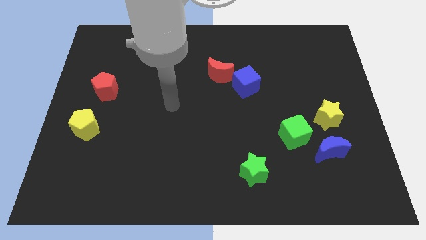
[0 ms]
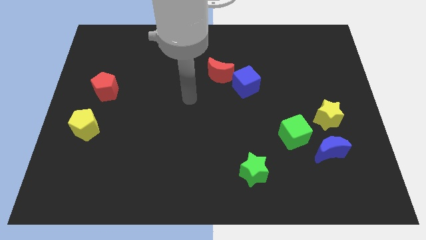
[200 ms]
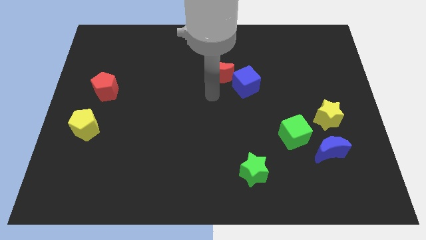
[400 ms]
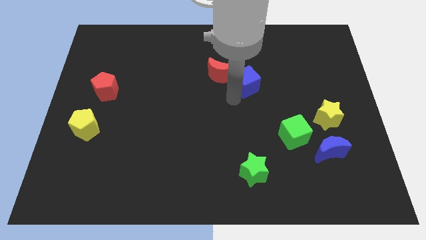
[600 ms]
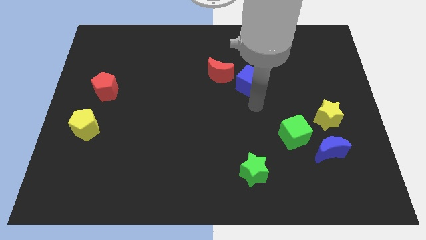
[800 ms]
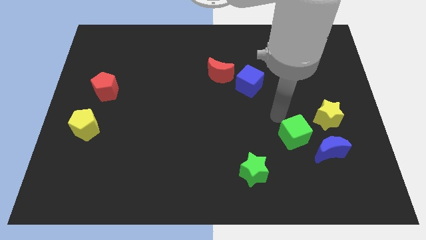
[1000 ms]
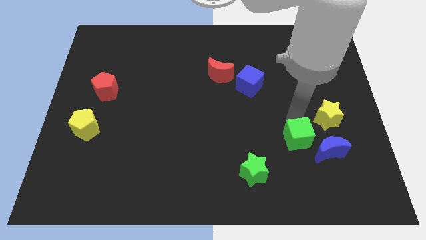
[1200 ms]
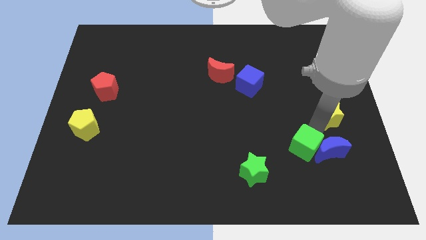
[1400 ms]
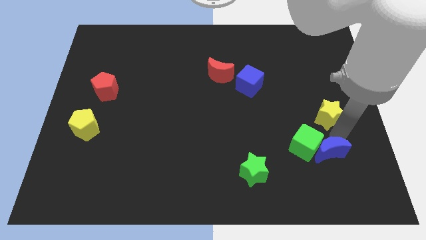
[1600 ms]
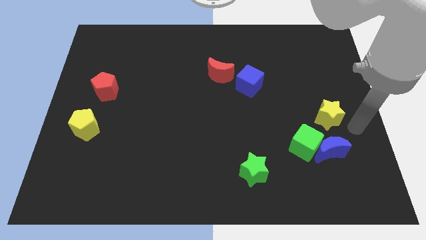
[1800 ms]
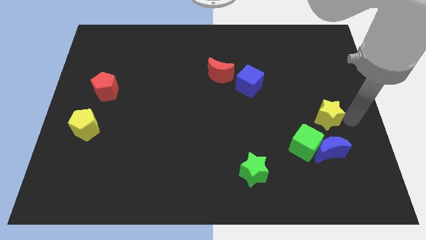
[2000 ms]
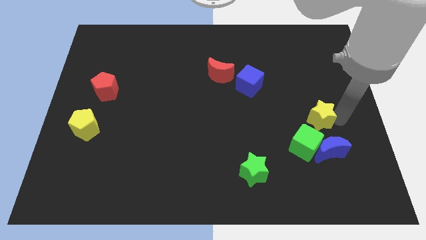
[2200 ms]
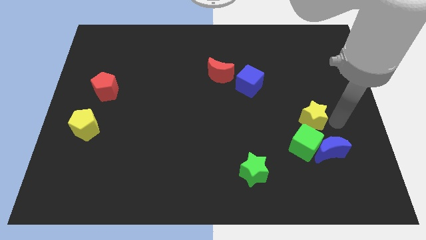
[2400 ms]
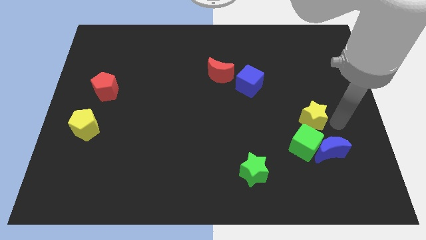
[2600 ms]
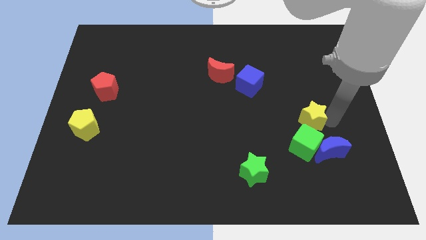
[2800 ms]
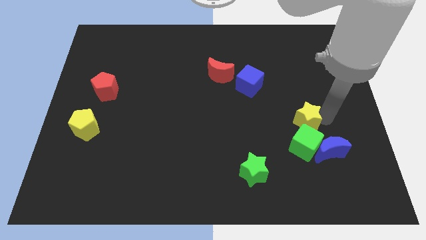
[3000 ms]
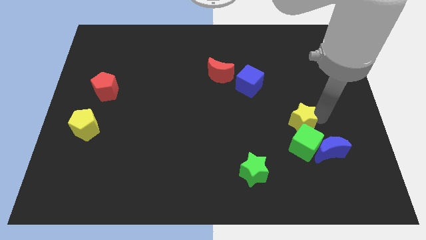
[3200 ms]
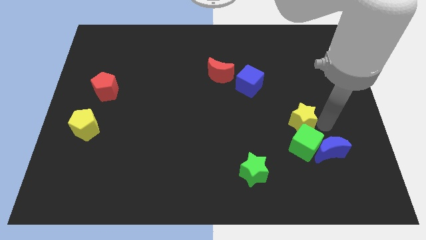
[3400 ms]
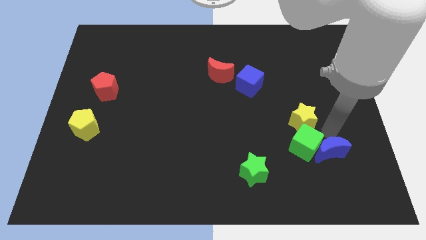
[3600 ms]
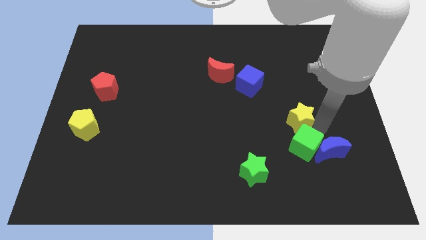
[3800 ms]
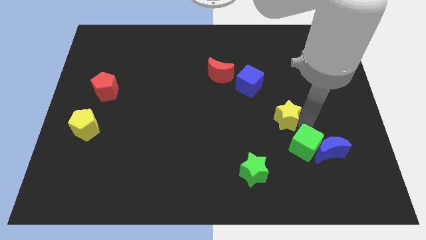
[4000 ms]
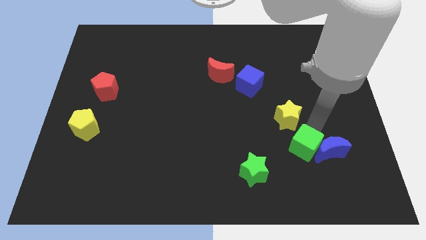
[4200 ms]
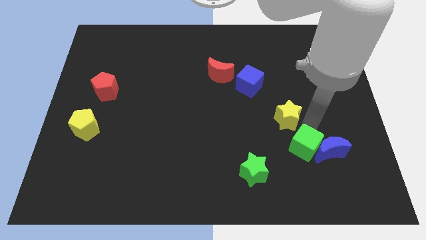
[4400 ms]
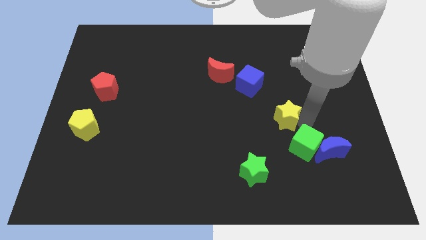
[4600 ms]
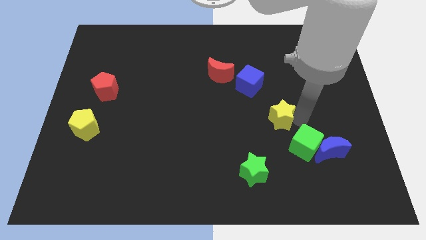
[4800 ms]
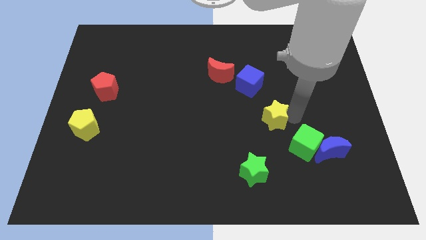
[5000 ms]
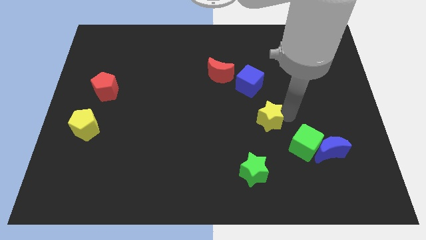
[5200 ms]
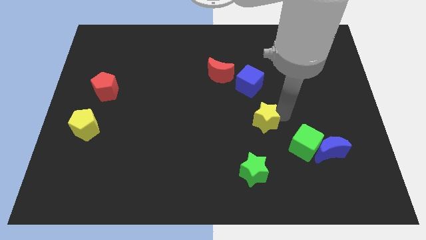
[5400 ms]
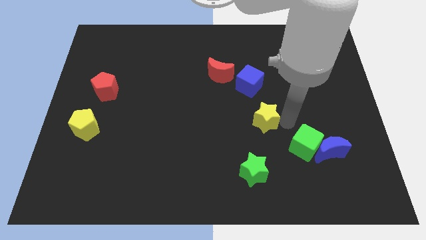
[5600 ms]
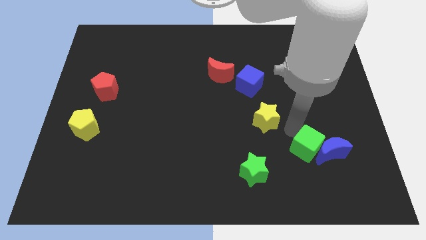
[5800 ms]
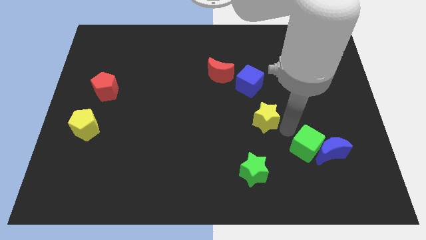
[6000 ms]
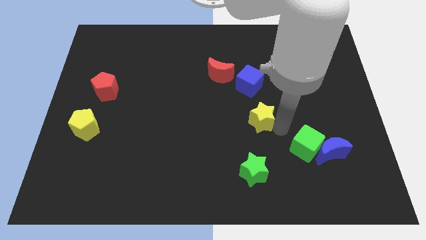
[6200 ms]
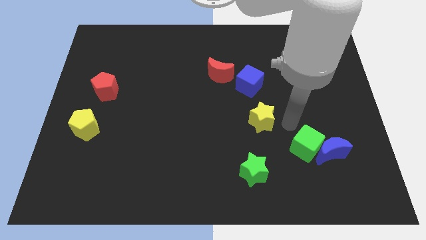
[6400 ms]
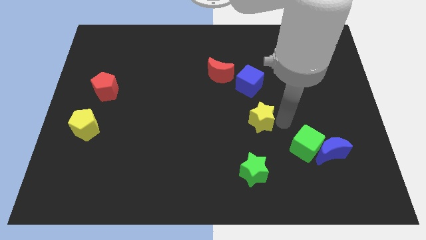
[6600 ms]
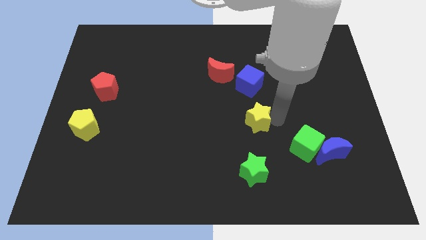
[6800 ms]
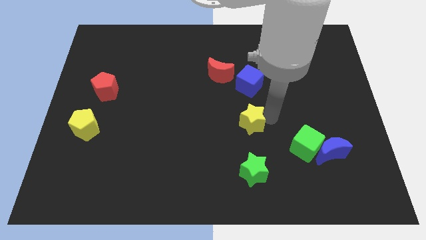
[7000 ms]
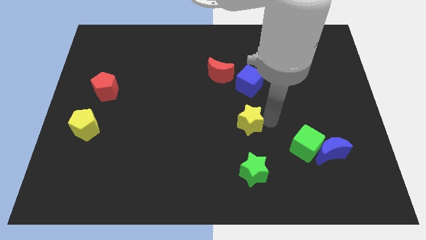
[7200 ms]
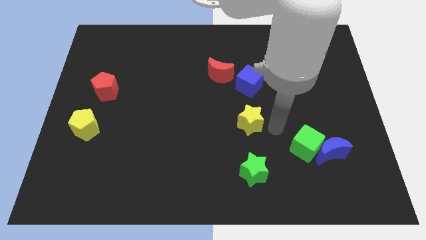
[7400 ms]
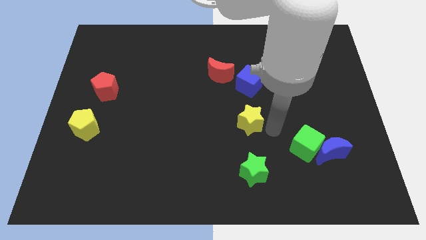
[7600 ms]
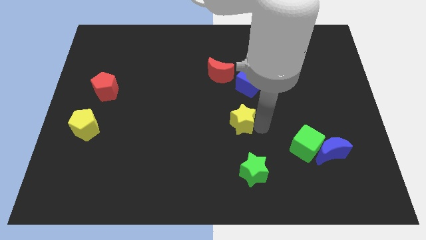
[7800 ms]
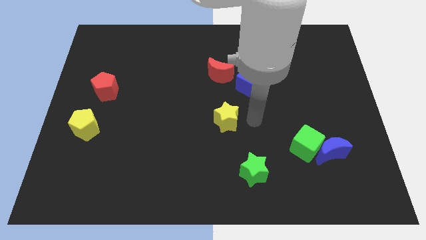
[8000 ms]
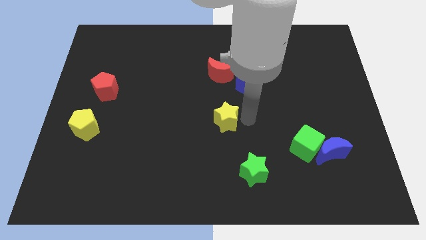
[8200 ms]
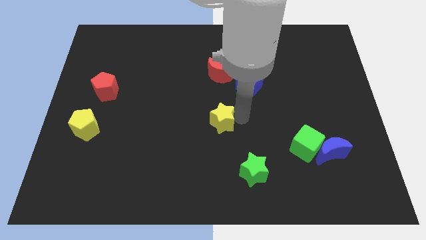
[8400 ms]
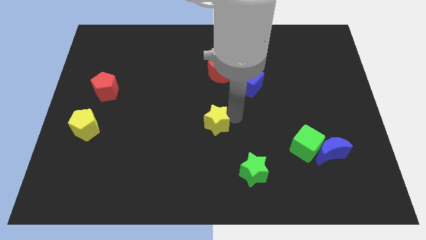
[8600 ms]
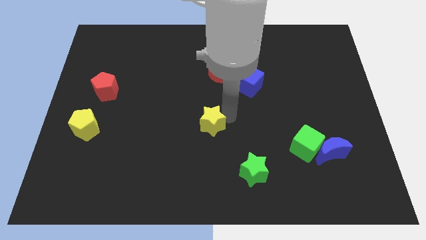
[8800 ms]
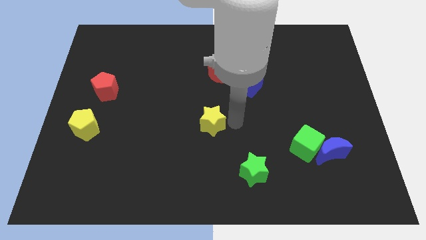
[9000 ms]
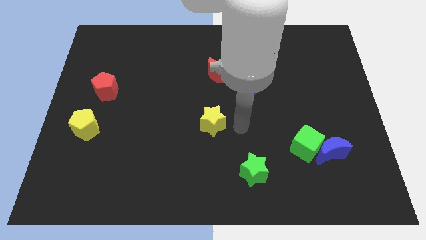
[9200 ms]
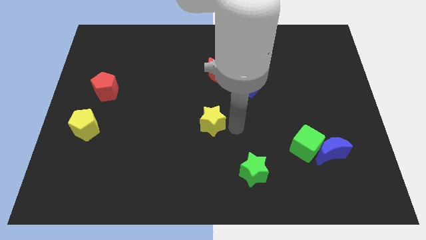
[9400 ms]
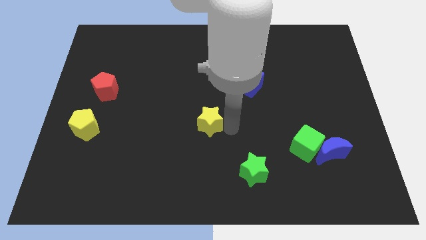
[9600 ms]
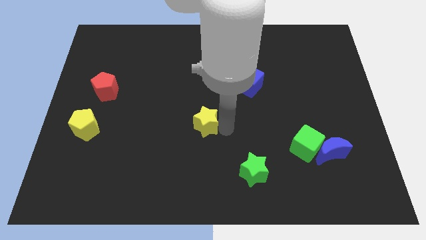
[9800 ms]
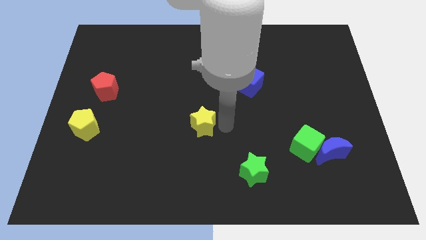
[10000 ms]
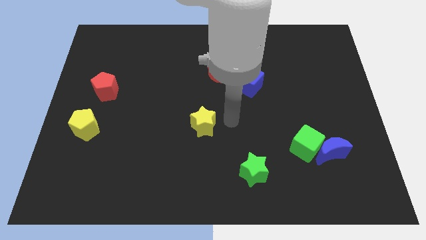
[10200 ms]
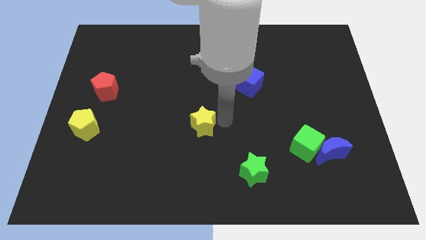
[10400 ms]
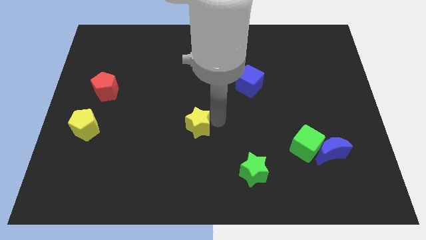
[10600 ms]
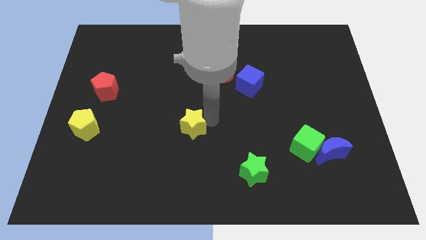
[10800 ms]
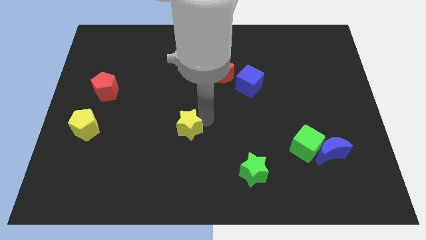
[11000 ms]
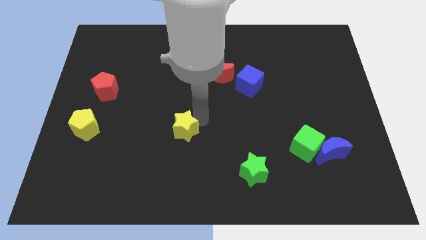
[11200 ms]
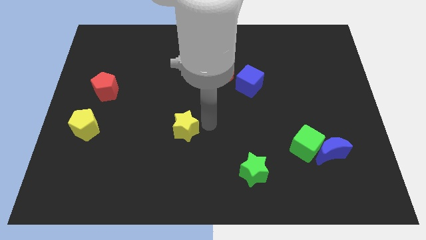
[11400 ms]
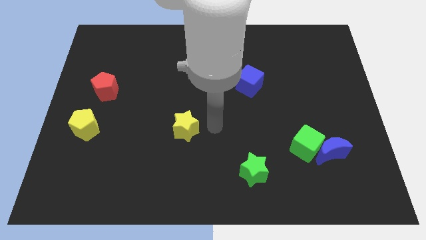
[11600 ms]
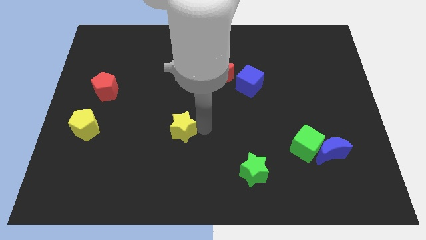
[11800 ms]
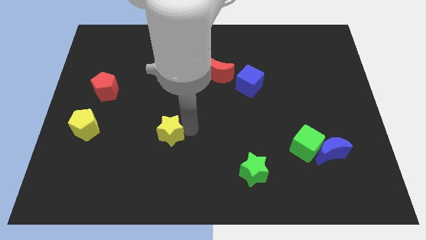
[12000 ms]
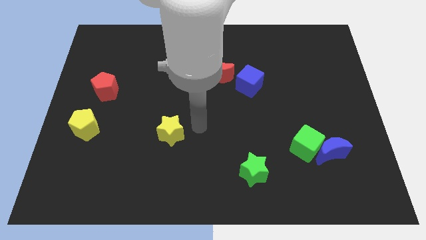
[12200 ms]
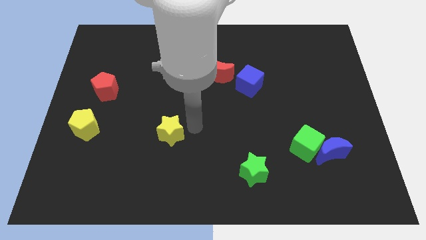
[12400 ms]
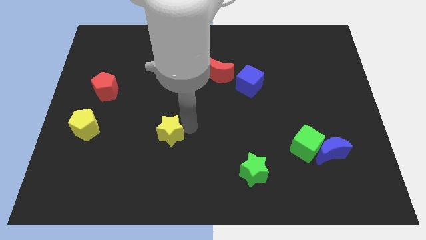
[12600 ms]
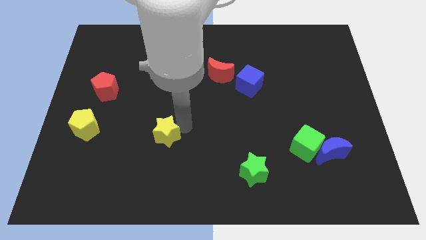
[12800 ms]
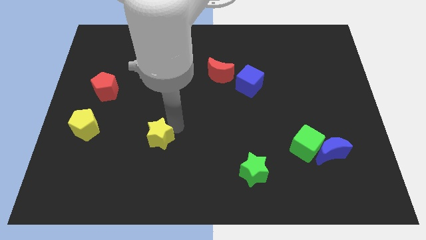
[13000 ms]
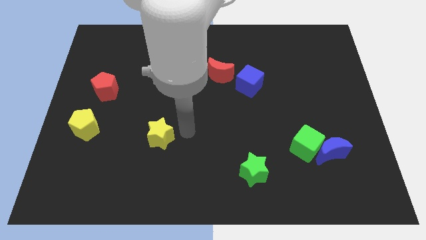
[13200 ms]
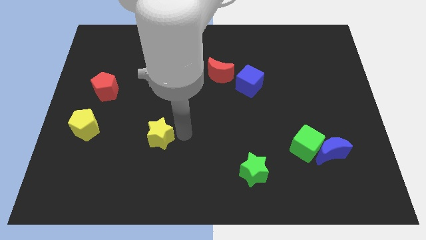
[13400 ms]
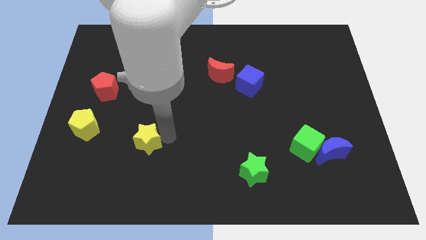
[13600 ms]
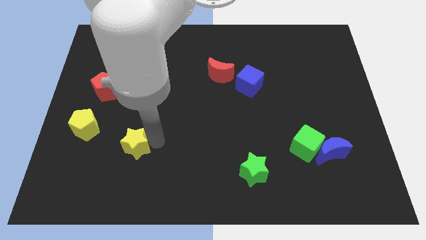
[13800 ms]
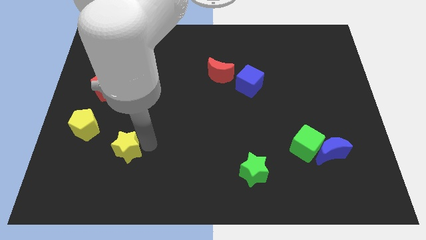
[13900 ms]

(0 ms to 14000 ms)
slide the yellow star to the bottom right side of the yellow pentagon
